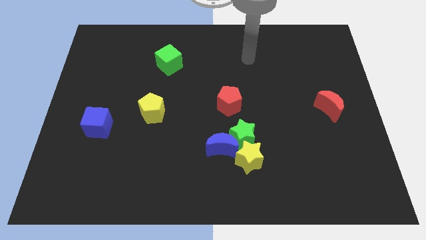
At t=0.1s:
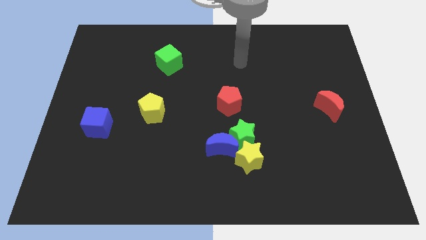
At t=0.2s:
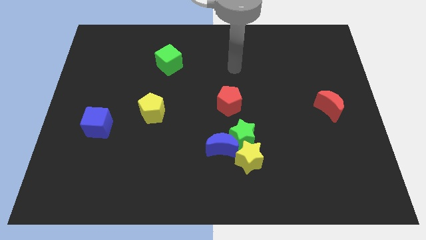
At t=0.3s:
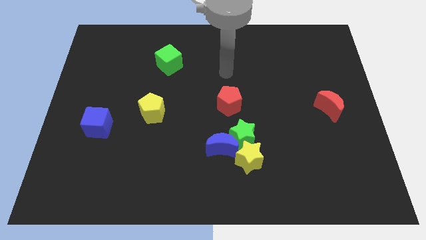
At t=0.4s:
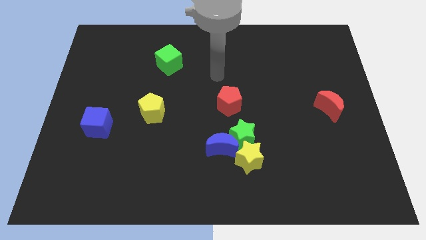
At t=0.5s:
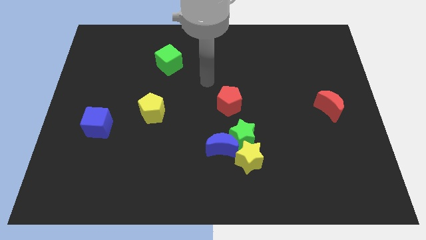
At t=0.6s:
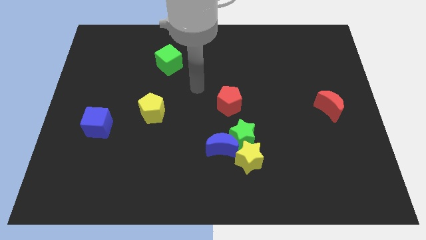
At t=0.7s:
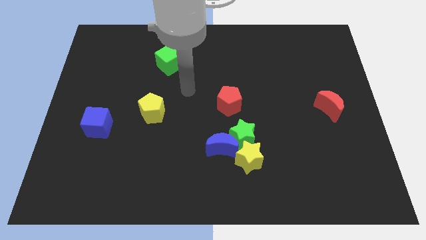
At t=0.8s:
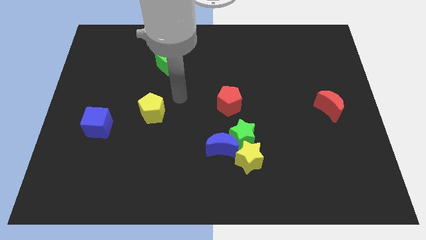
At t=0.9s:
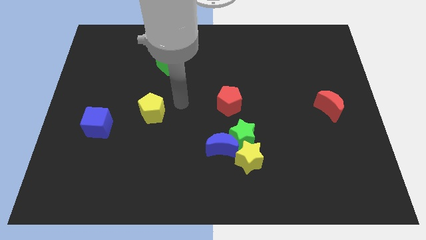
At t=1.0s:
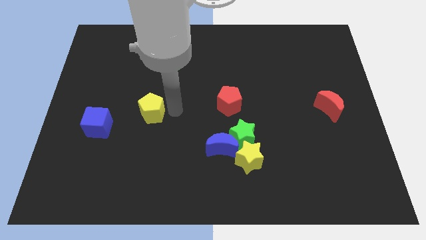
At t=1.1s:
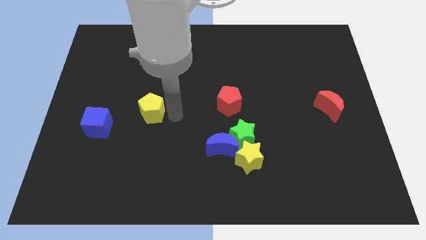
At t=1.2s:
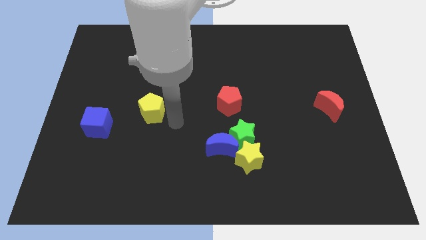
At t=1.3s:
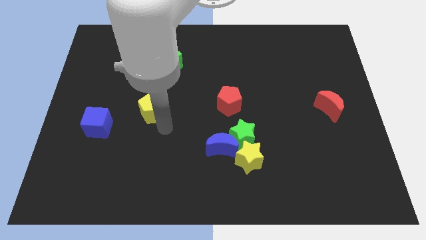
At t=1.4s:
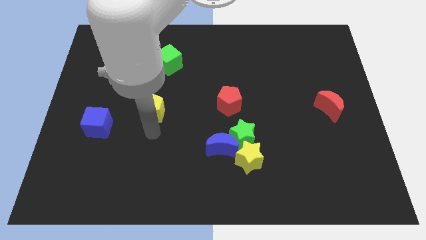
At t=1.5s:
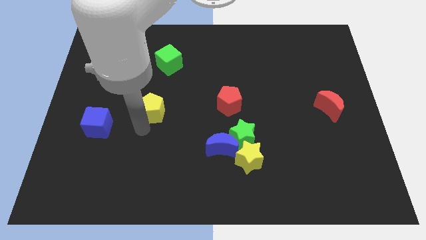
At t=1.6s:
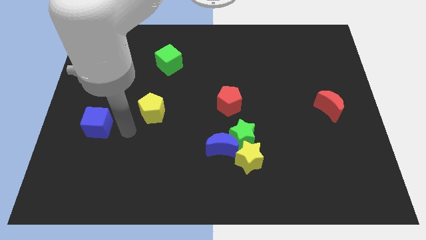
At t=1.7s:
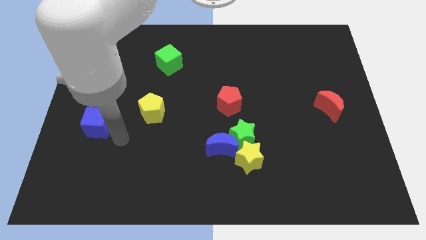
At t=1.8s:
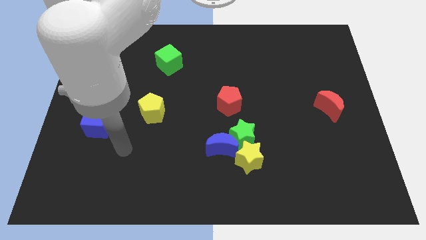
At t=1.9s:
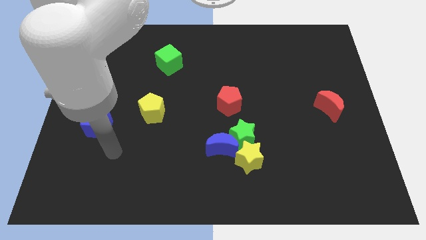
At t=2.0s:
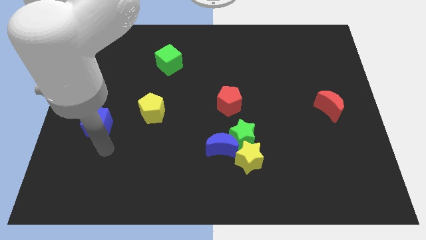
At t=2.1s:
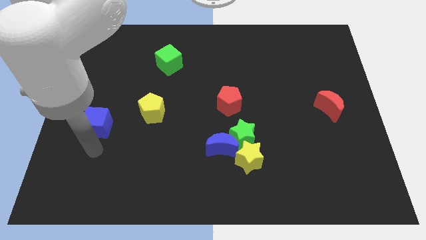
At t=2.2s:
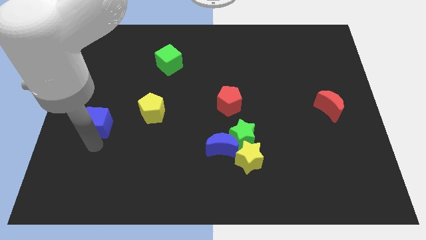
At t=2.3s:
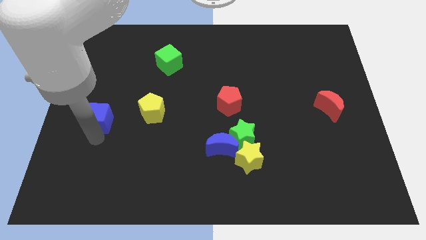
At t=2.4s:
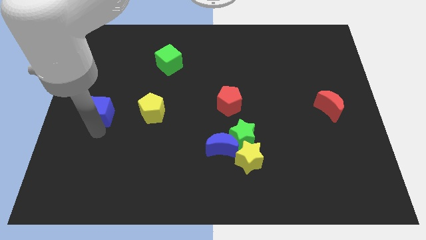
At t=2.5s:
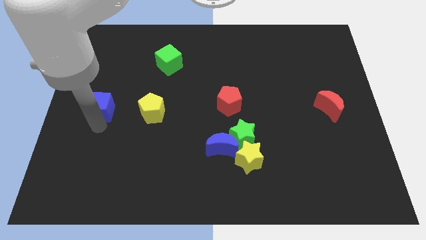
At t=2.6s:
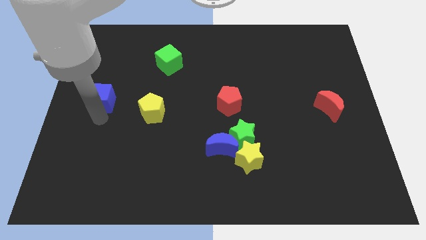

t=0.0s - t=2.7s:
move the blue cube upwards a little

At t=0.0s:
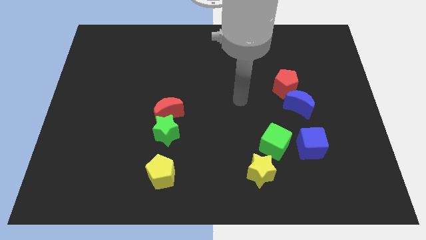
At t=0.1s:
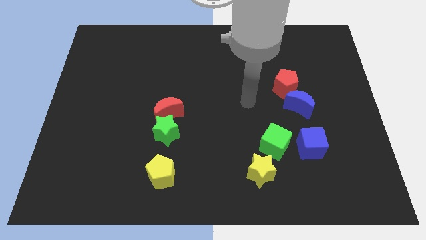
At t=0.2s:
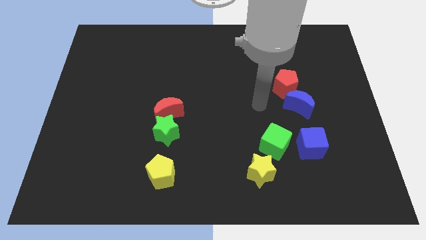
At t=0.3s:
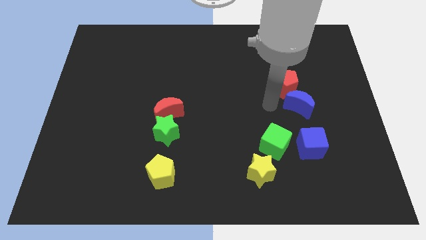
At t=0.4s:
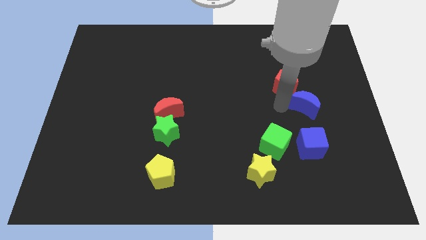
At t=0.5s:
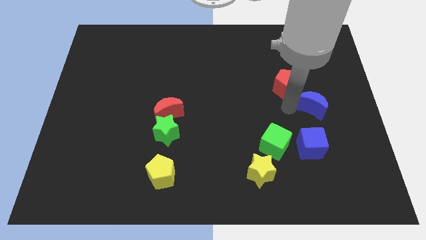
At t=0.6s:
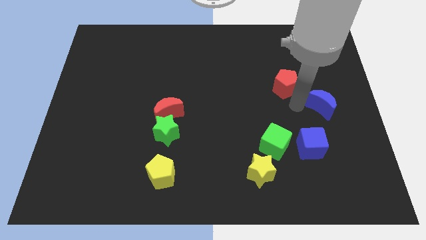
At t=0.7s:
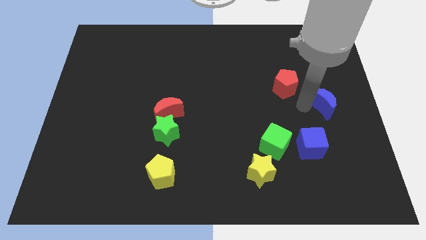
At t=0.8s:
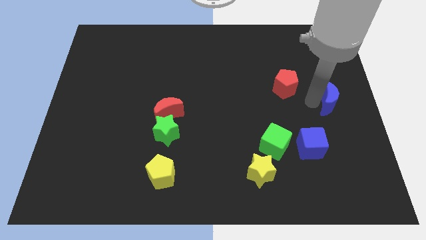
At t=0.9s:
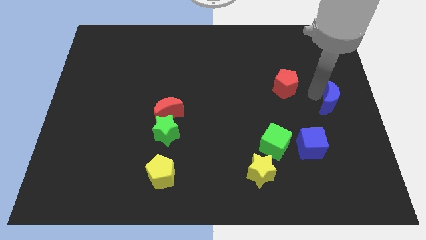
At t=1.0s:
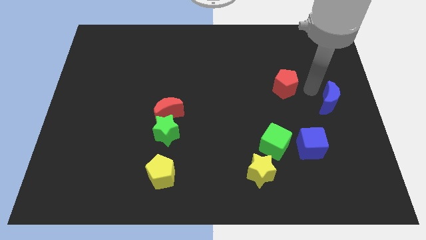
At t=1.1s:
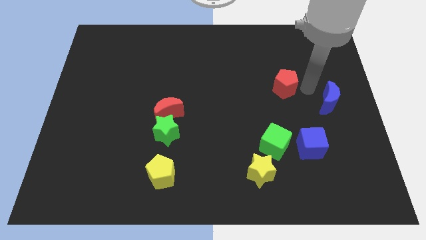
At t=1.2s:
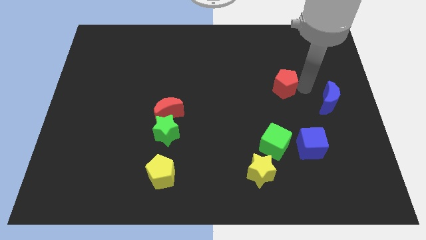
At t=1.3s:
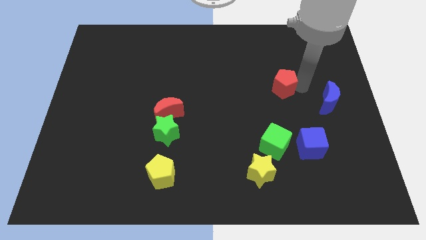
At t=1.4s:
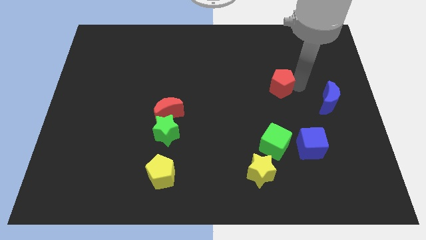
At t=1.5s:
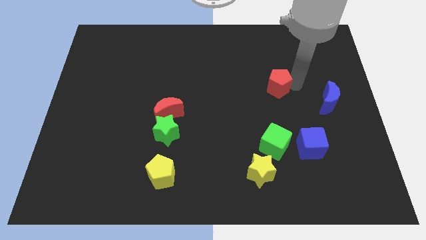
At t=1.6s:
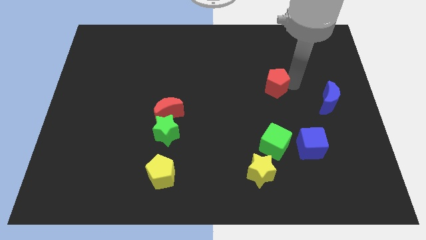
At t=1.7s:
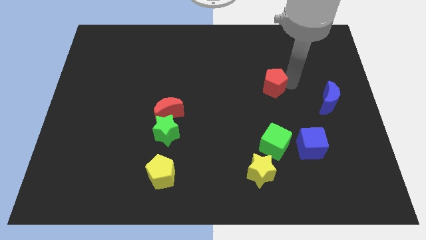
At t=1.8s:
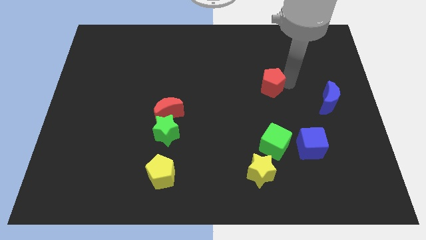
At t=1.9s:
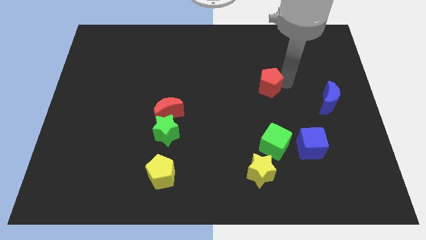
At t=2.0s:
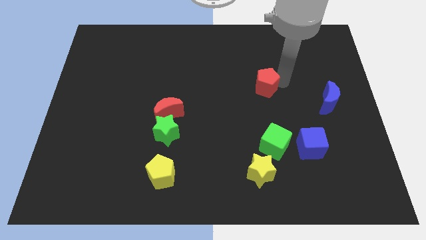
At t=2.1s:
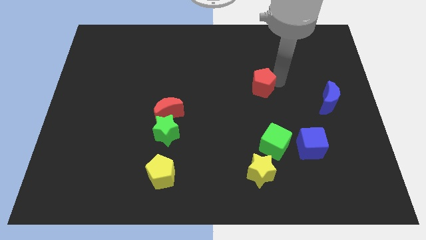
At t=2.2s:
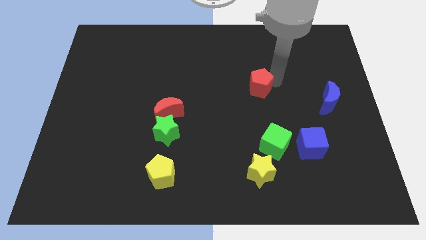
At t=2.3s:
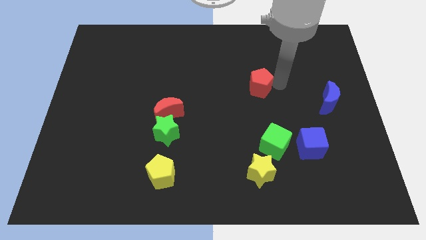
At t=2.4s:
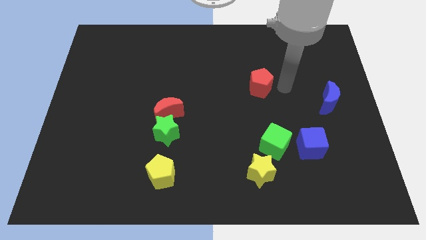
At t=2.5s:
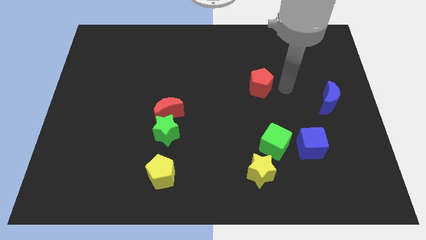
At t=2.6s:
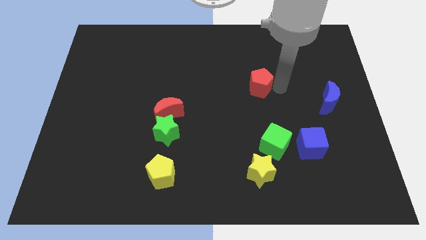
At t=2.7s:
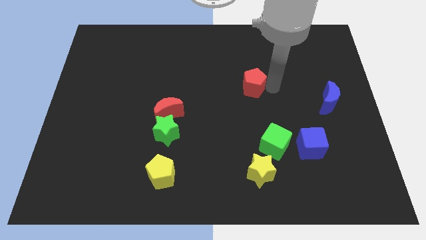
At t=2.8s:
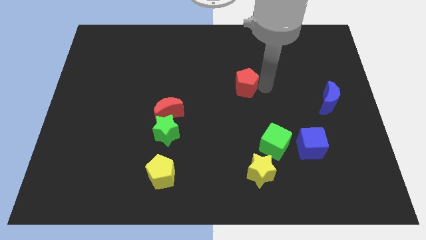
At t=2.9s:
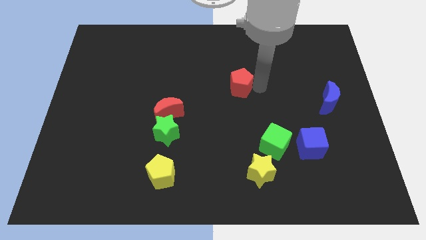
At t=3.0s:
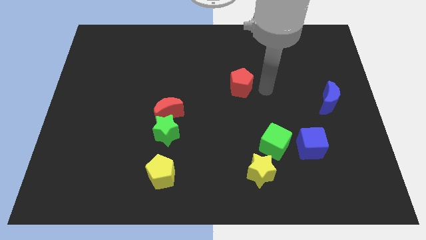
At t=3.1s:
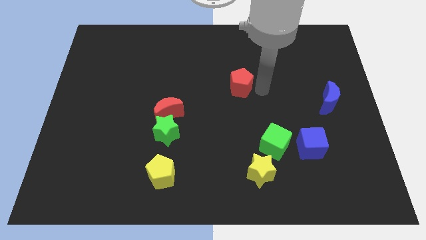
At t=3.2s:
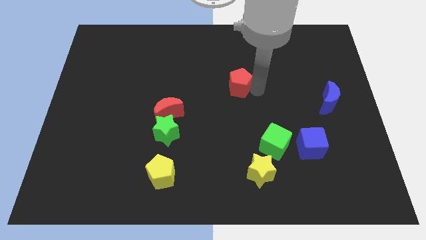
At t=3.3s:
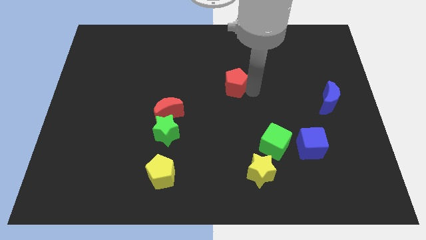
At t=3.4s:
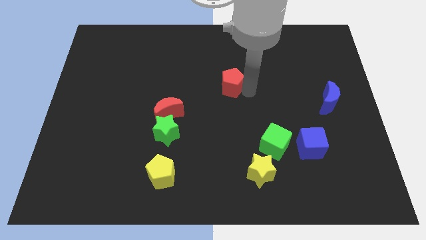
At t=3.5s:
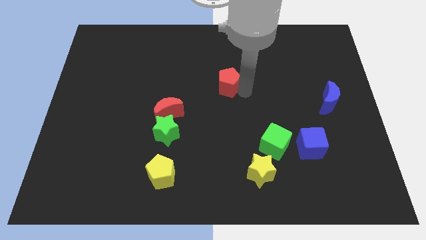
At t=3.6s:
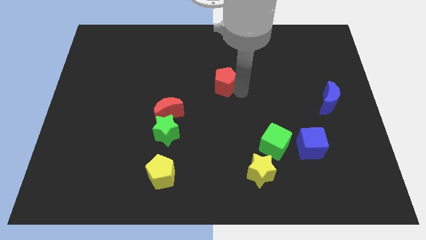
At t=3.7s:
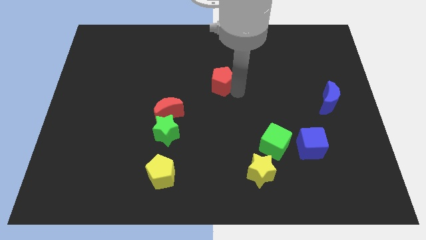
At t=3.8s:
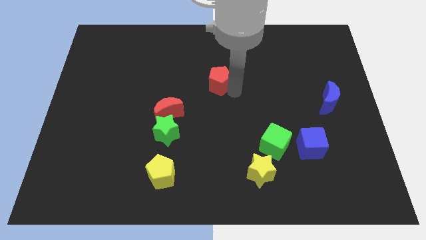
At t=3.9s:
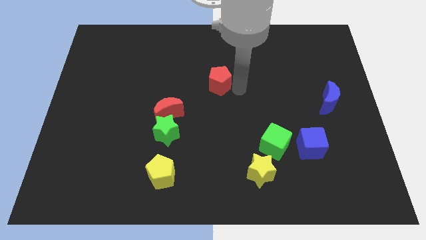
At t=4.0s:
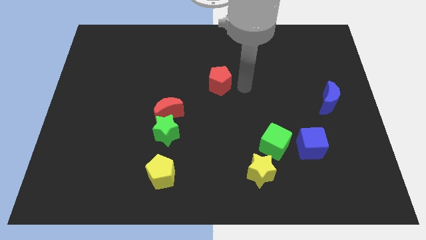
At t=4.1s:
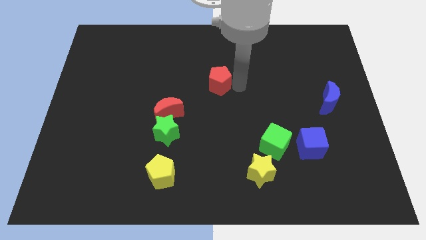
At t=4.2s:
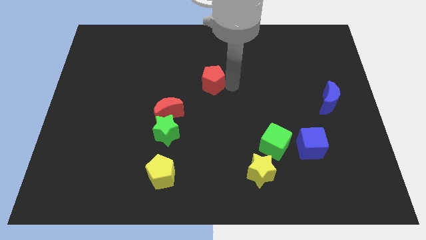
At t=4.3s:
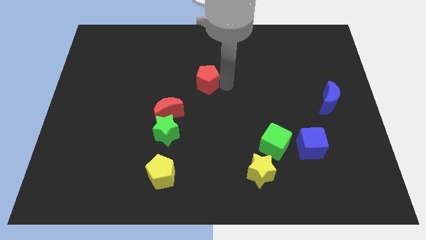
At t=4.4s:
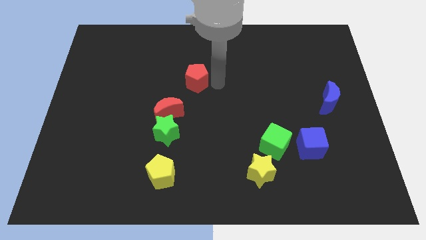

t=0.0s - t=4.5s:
slide the red pentagon left

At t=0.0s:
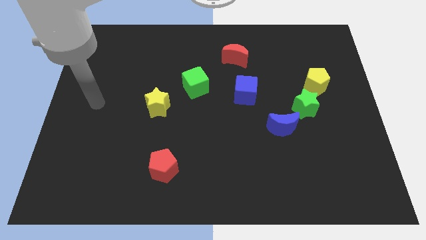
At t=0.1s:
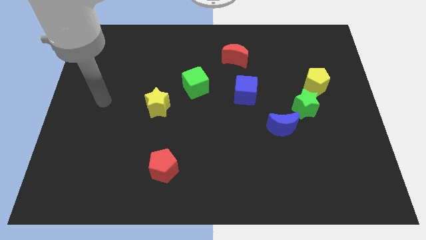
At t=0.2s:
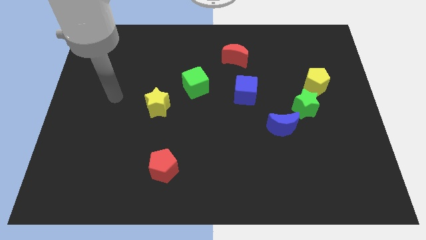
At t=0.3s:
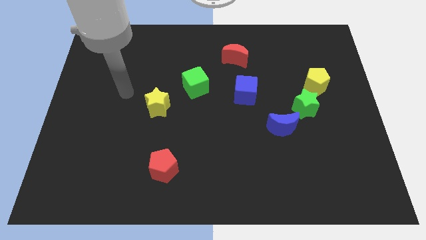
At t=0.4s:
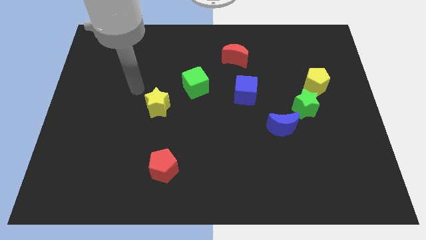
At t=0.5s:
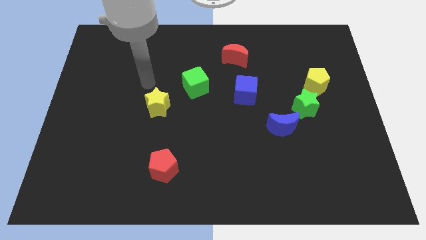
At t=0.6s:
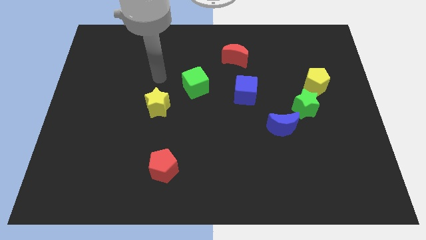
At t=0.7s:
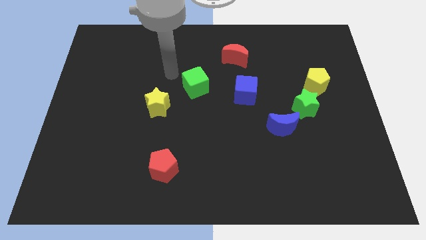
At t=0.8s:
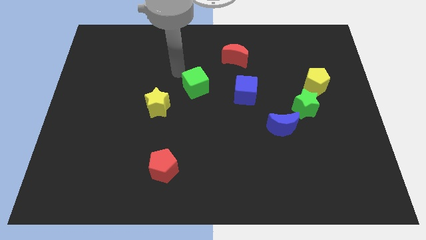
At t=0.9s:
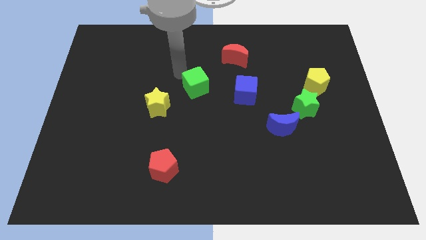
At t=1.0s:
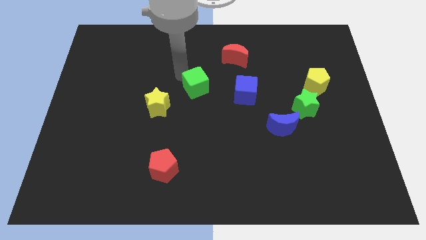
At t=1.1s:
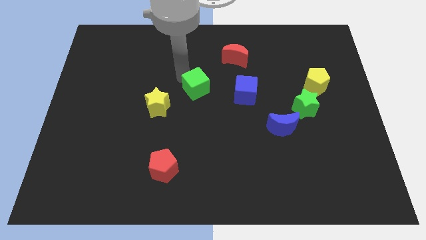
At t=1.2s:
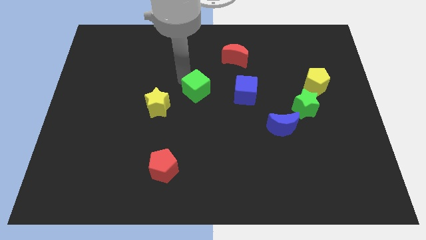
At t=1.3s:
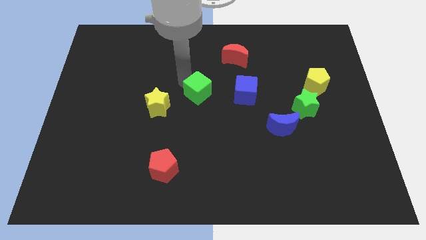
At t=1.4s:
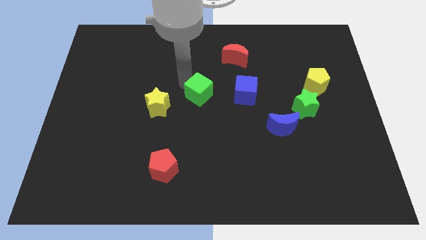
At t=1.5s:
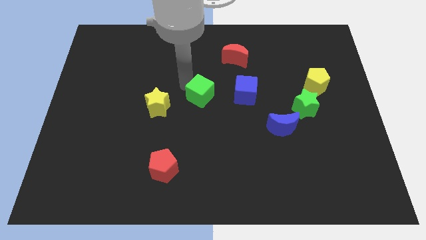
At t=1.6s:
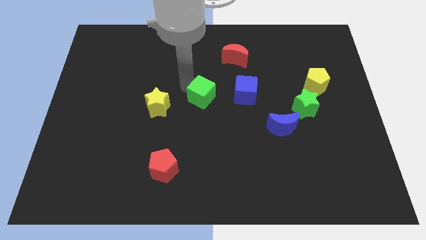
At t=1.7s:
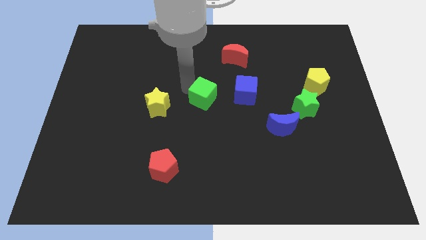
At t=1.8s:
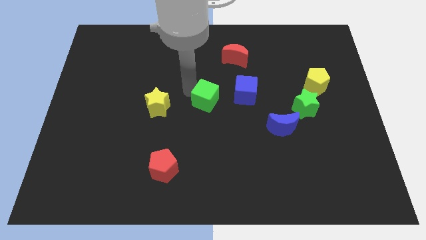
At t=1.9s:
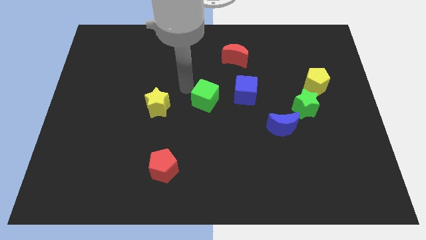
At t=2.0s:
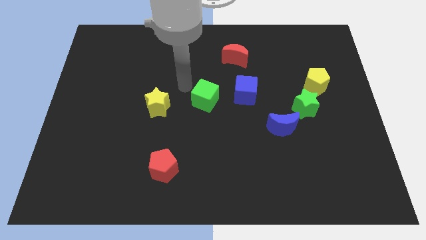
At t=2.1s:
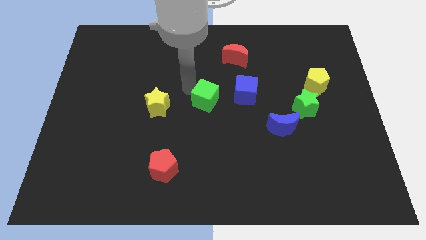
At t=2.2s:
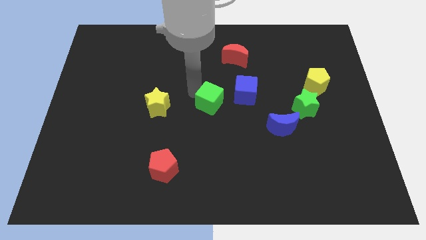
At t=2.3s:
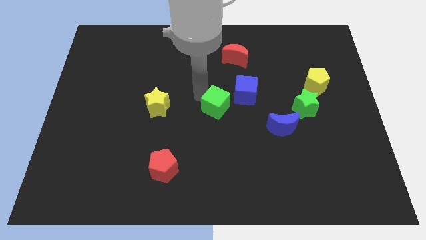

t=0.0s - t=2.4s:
slightly move the green cube downwards and to the right
